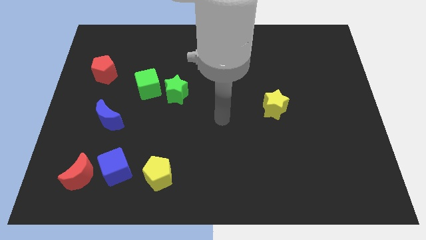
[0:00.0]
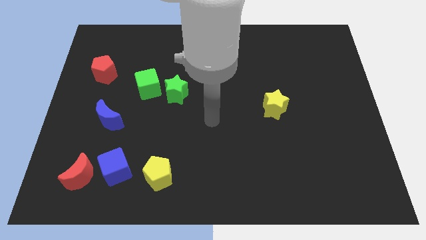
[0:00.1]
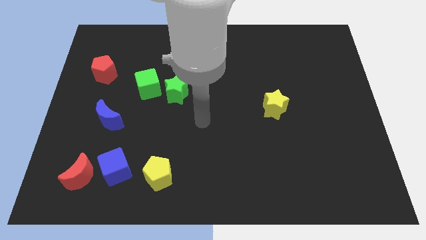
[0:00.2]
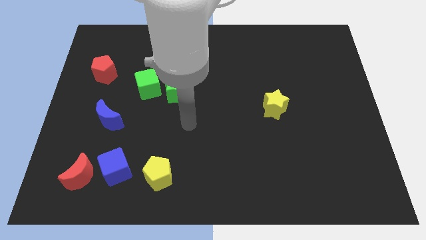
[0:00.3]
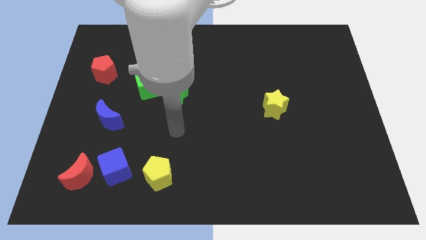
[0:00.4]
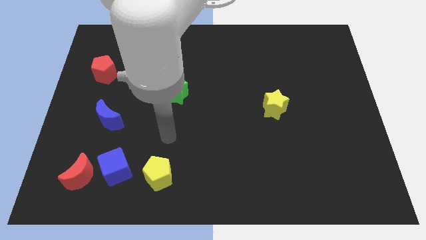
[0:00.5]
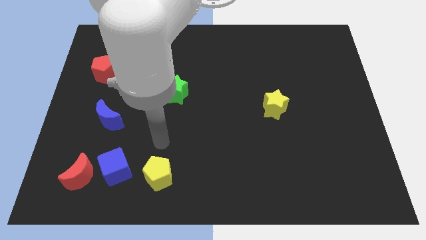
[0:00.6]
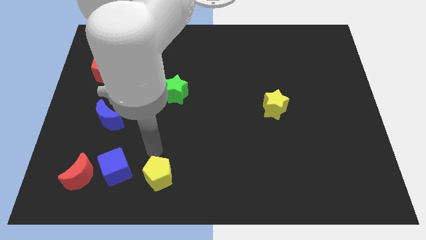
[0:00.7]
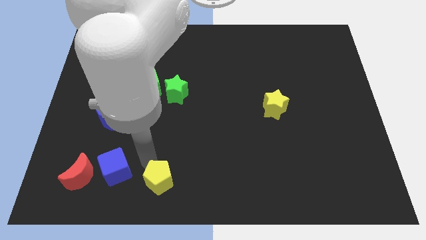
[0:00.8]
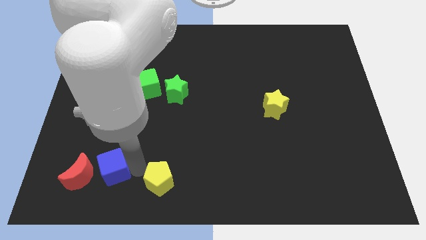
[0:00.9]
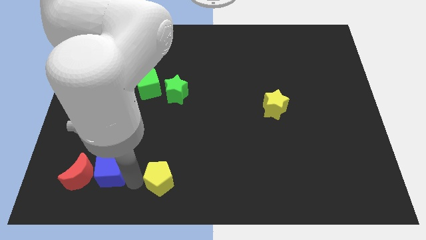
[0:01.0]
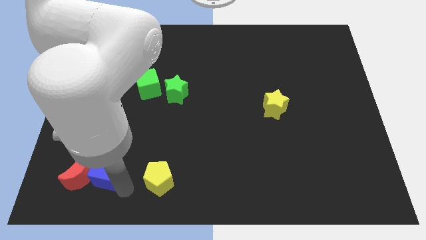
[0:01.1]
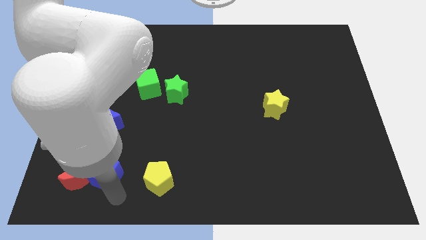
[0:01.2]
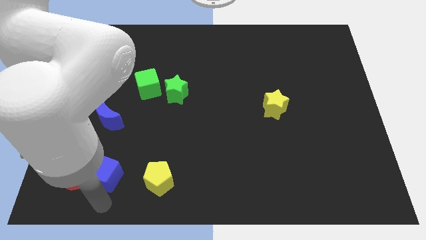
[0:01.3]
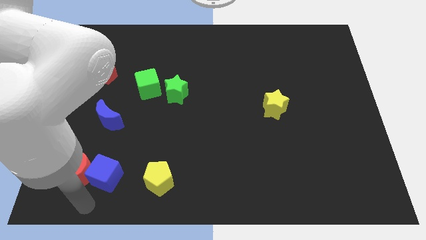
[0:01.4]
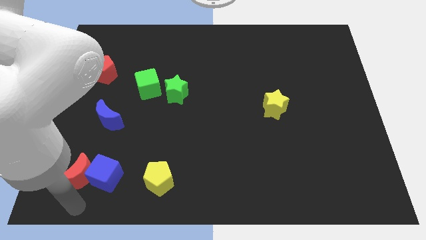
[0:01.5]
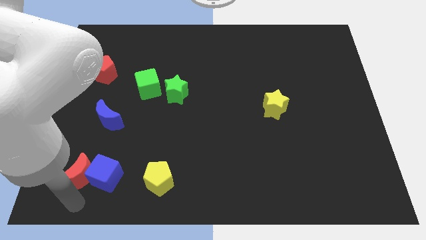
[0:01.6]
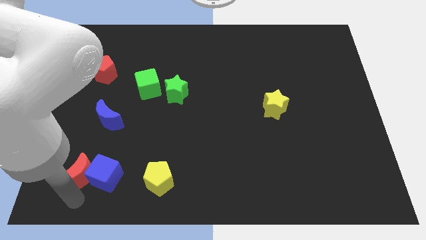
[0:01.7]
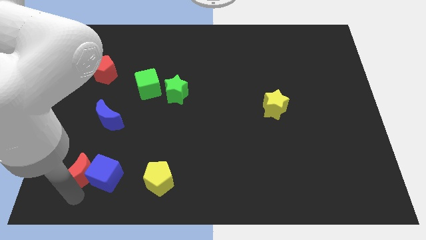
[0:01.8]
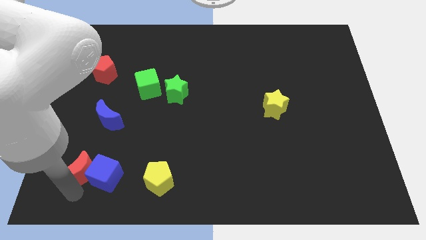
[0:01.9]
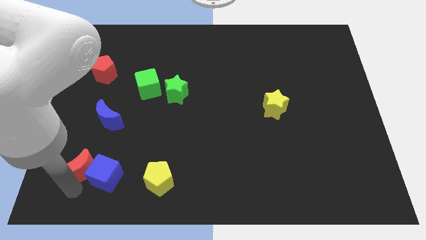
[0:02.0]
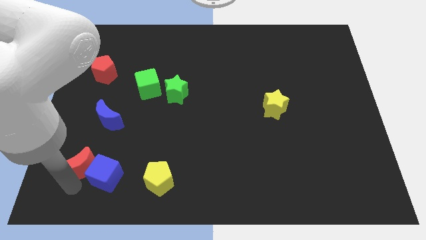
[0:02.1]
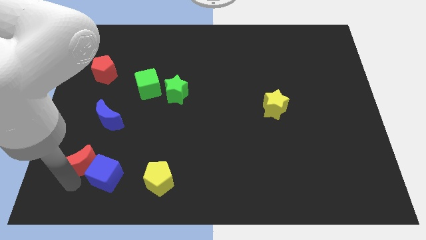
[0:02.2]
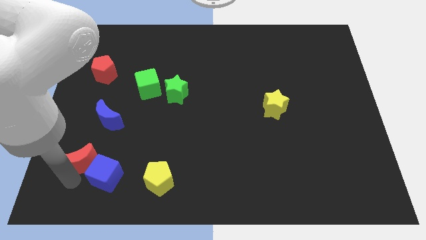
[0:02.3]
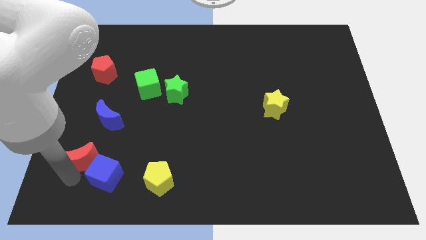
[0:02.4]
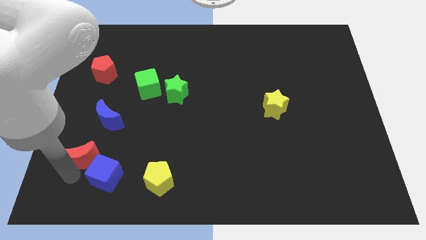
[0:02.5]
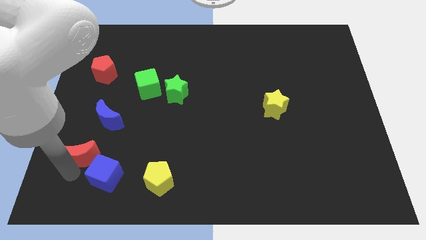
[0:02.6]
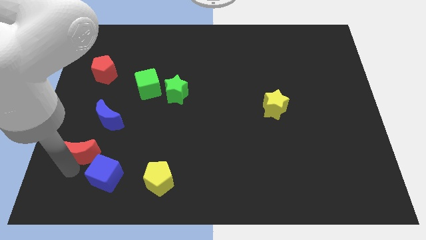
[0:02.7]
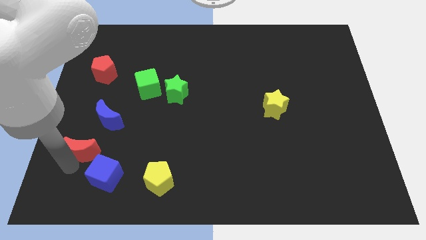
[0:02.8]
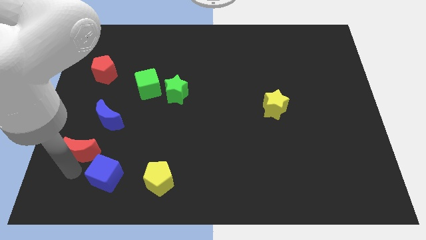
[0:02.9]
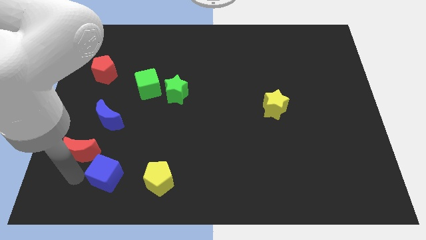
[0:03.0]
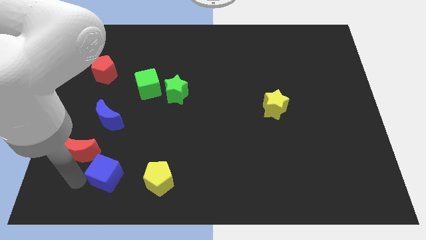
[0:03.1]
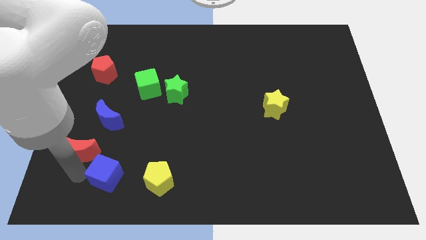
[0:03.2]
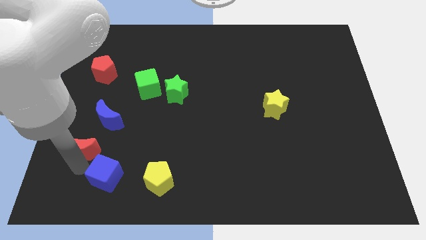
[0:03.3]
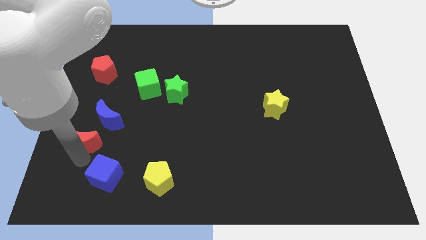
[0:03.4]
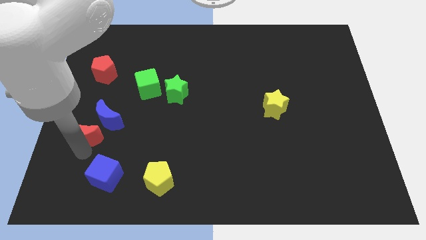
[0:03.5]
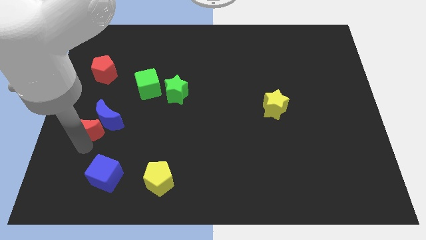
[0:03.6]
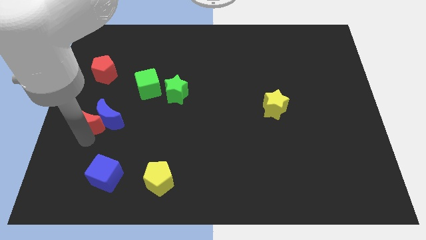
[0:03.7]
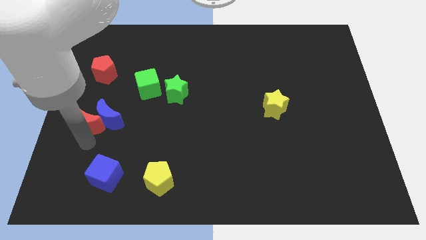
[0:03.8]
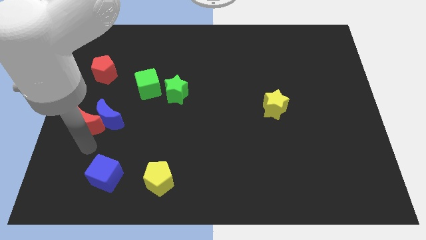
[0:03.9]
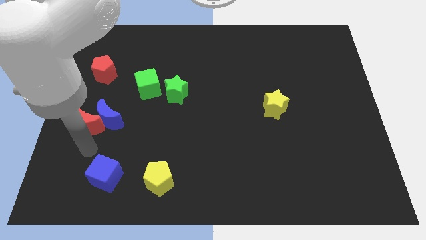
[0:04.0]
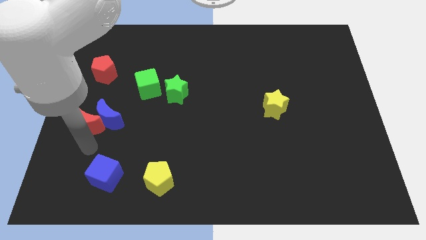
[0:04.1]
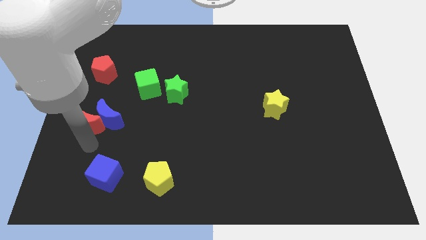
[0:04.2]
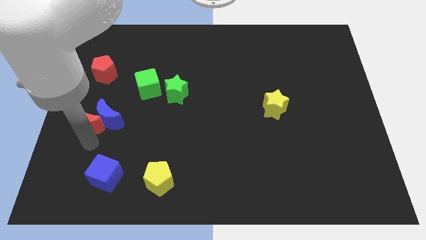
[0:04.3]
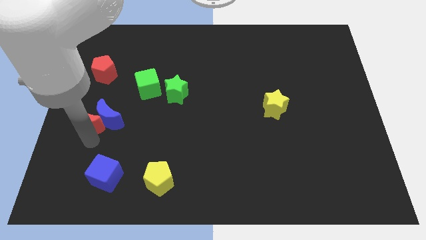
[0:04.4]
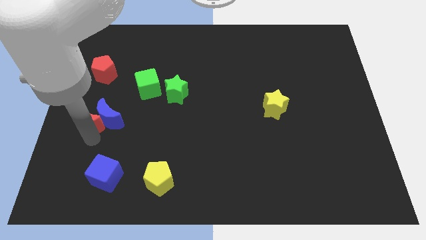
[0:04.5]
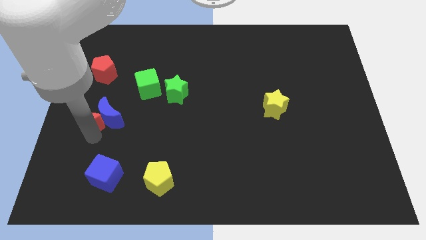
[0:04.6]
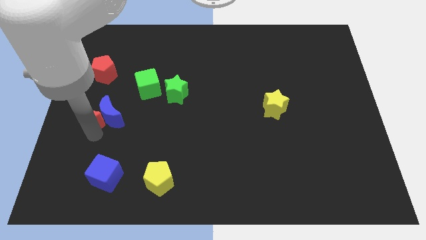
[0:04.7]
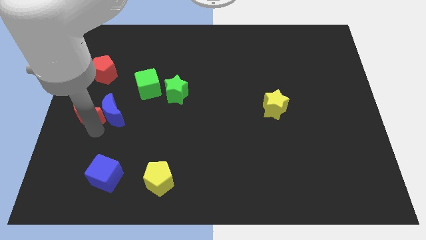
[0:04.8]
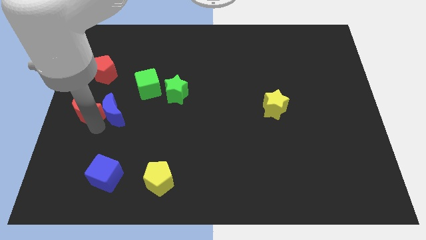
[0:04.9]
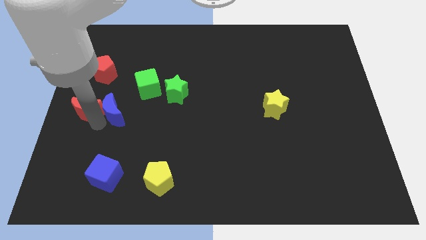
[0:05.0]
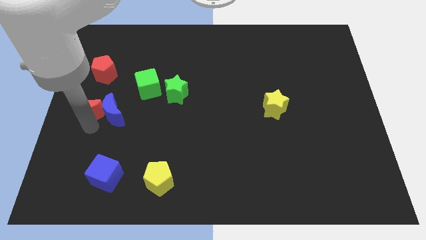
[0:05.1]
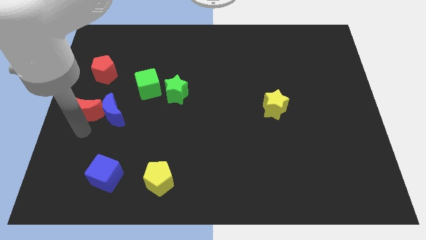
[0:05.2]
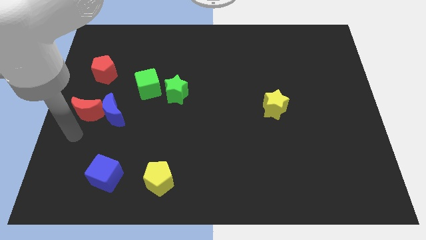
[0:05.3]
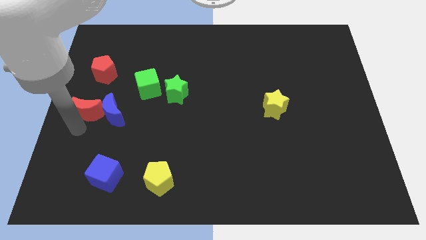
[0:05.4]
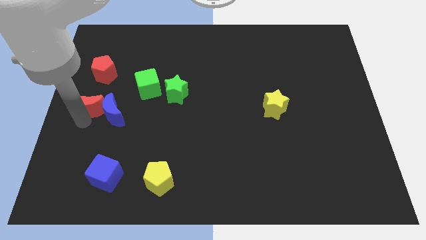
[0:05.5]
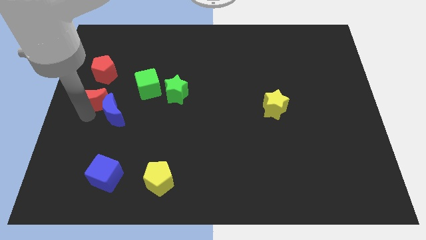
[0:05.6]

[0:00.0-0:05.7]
put the red moon to the left side of the green cube

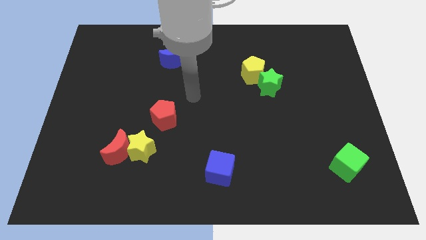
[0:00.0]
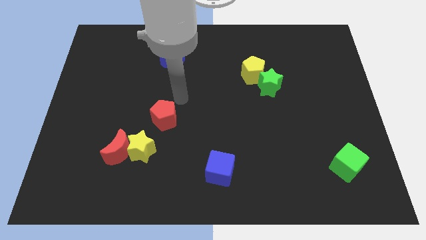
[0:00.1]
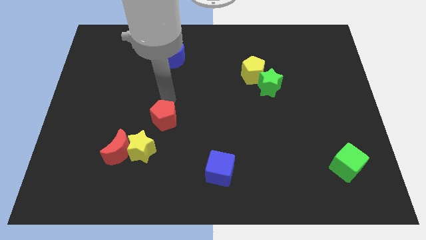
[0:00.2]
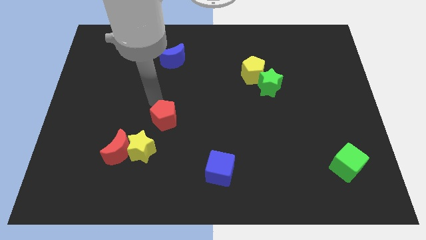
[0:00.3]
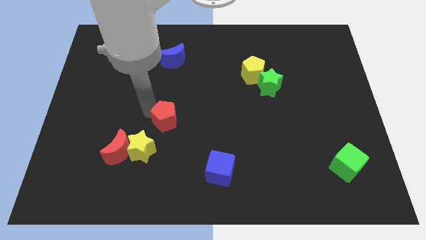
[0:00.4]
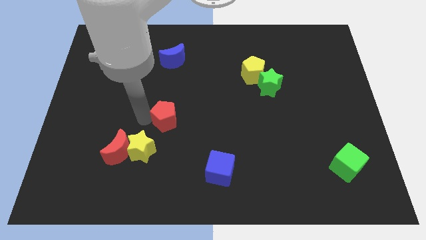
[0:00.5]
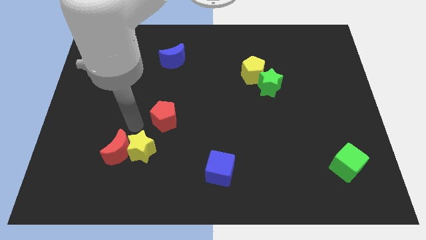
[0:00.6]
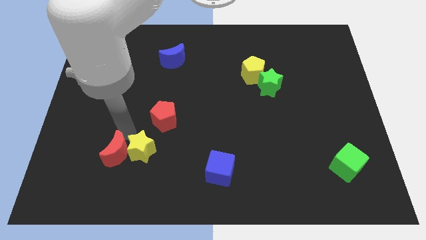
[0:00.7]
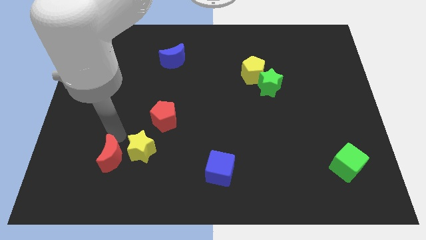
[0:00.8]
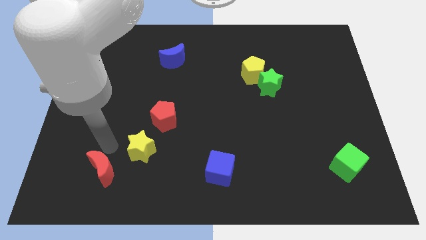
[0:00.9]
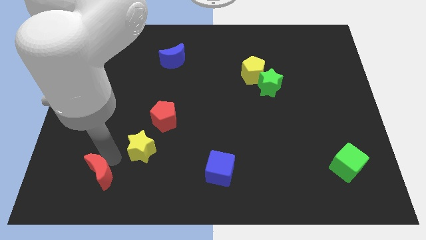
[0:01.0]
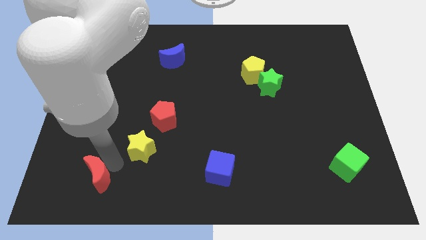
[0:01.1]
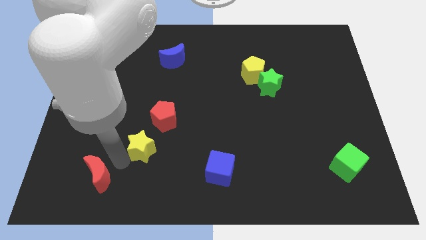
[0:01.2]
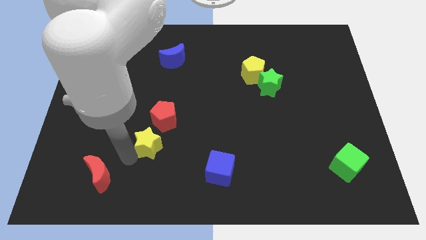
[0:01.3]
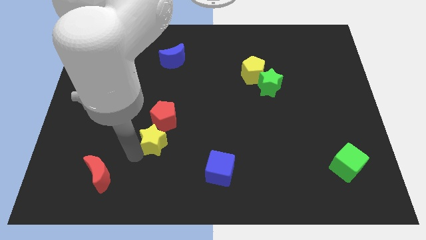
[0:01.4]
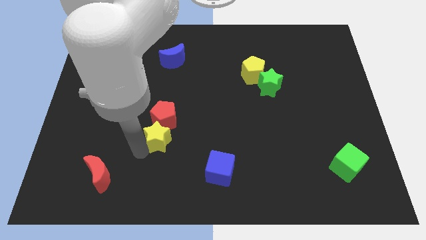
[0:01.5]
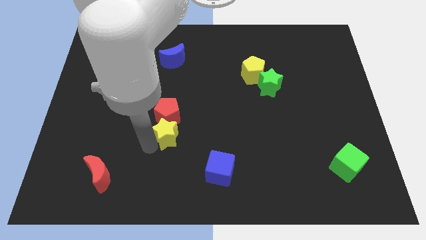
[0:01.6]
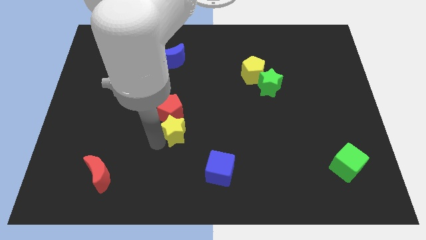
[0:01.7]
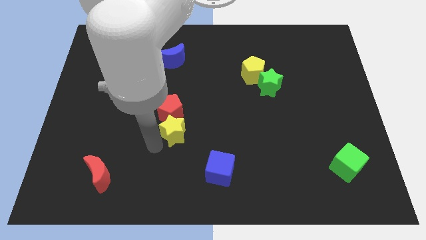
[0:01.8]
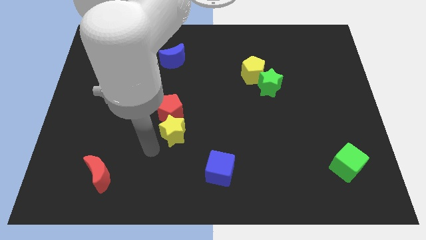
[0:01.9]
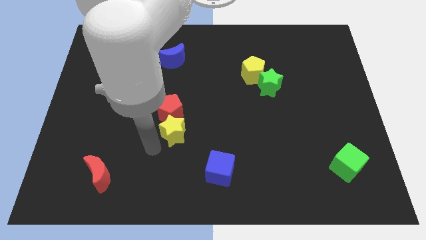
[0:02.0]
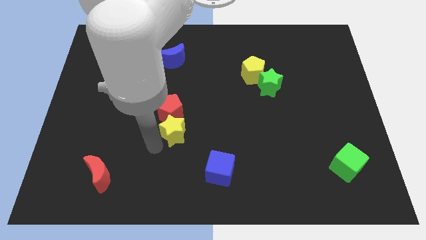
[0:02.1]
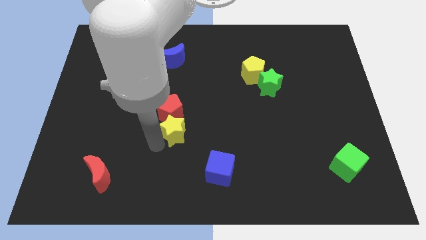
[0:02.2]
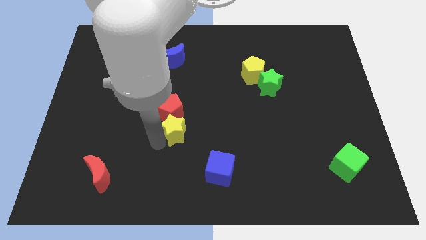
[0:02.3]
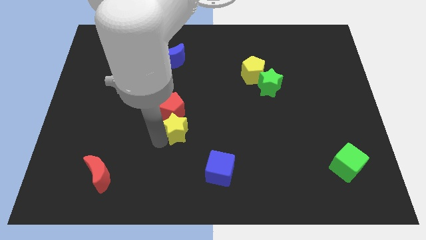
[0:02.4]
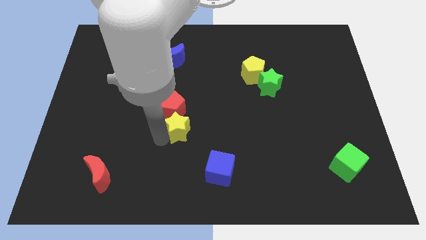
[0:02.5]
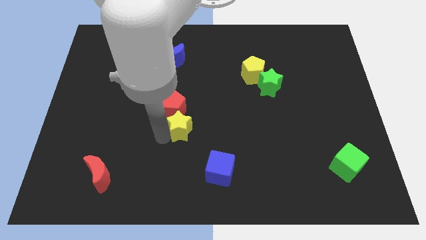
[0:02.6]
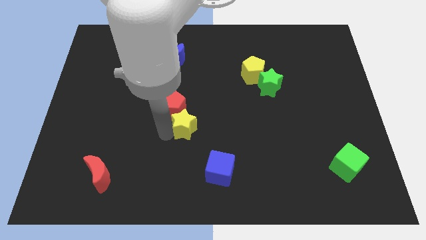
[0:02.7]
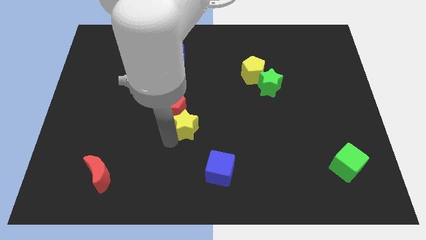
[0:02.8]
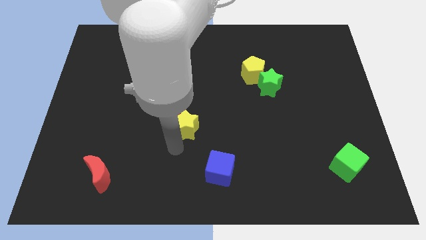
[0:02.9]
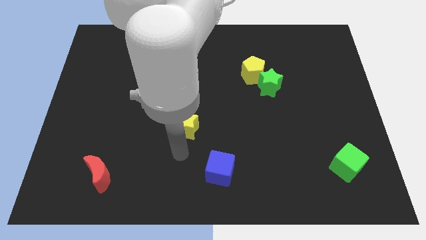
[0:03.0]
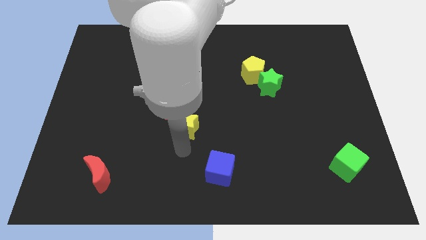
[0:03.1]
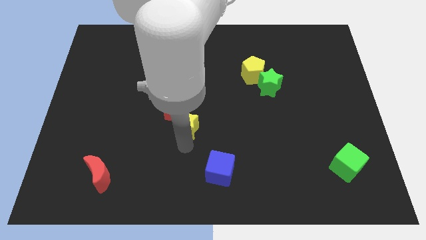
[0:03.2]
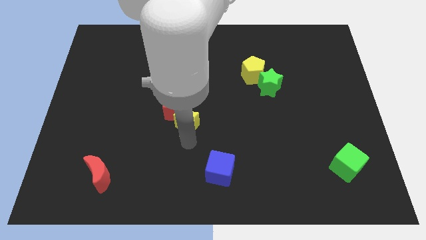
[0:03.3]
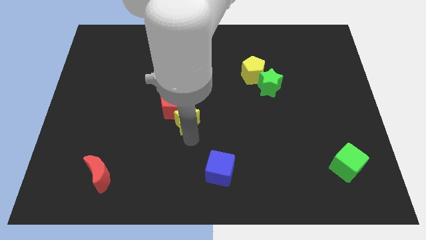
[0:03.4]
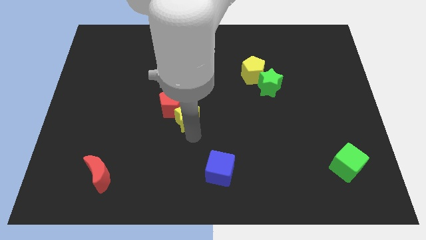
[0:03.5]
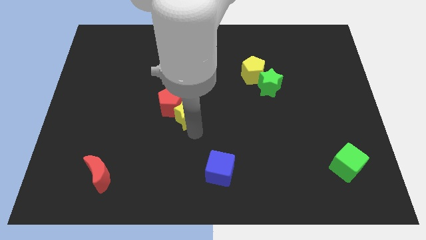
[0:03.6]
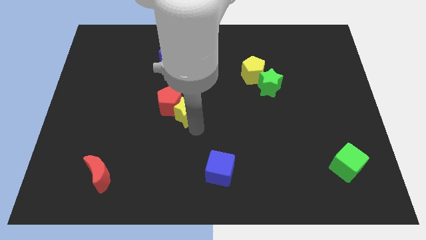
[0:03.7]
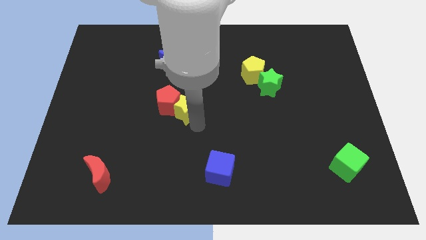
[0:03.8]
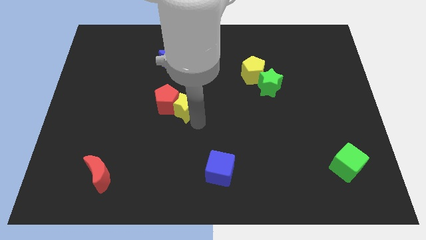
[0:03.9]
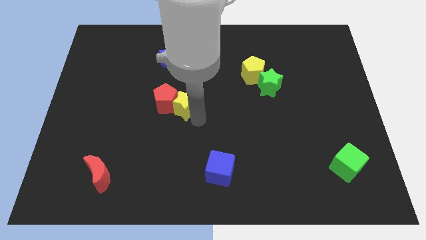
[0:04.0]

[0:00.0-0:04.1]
slide the yellow star diagonally up and to the right of the red pentagon
